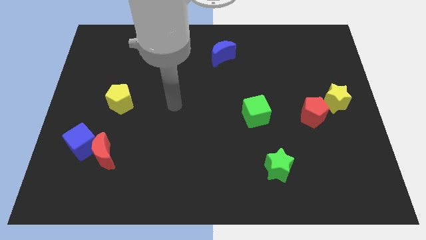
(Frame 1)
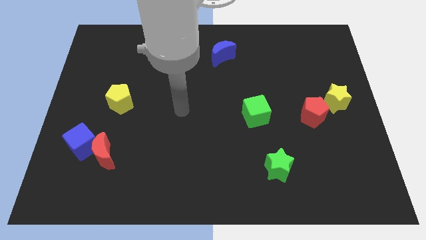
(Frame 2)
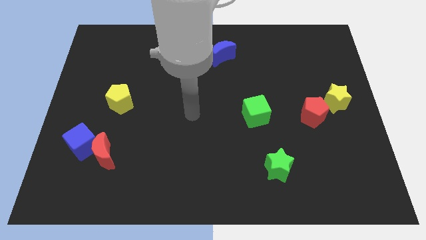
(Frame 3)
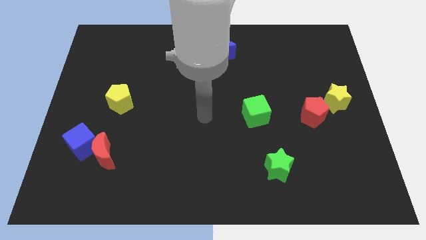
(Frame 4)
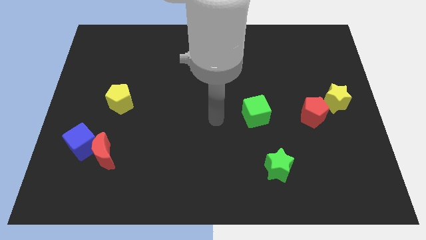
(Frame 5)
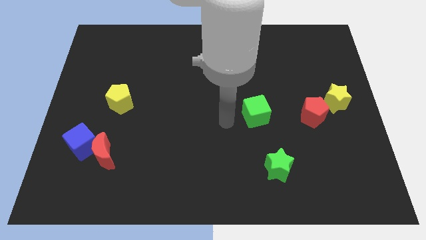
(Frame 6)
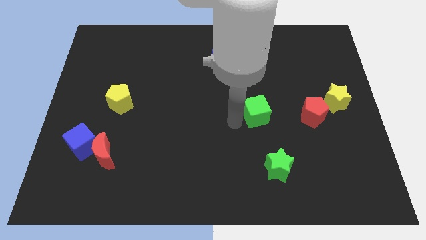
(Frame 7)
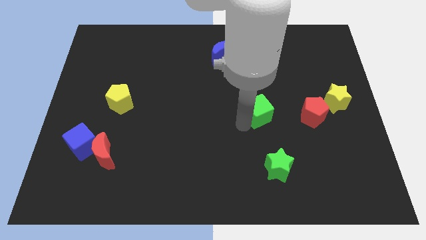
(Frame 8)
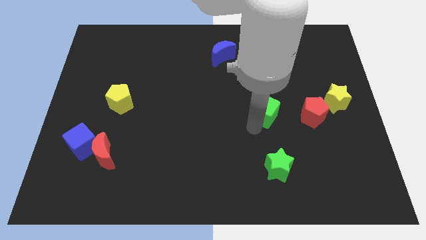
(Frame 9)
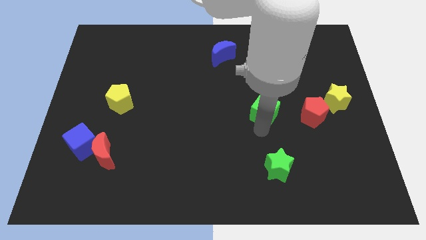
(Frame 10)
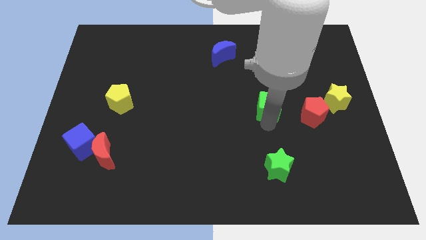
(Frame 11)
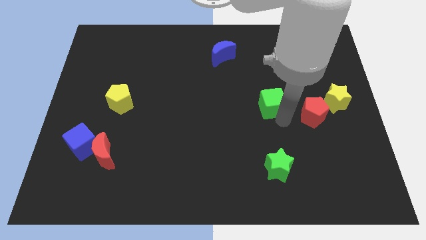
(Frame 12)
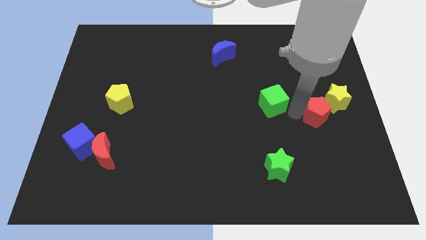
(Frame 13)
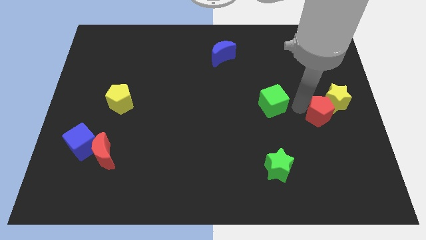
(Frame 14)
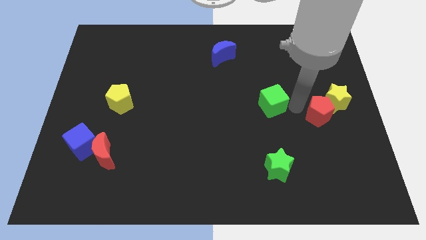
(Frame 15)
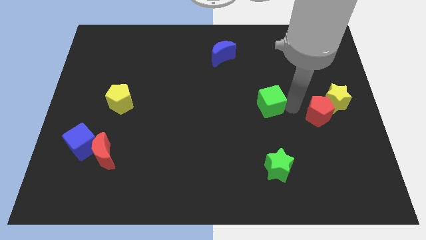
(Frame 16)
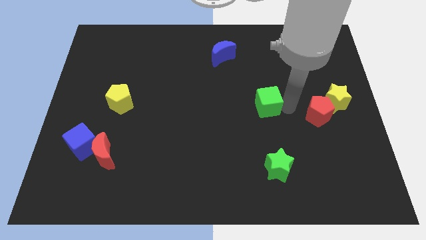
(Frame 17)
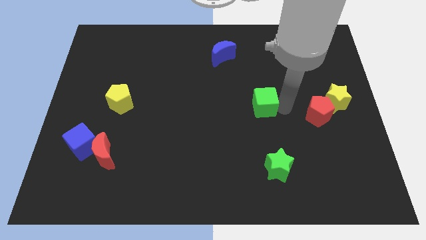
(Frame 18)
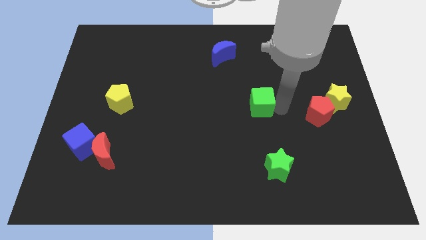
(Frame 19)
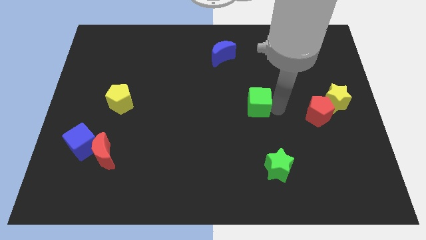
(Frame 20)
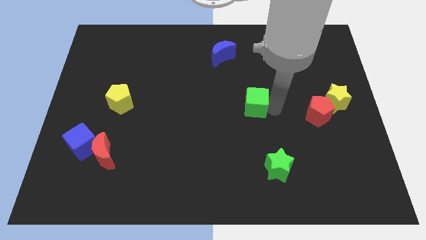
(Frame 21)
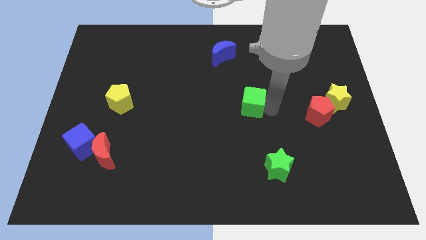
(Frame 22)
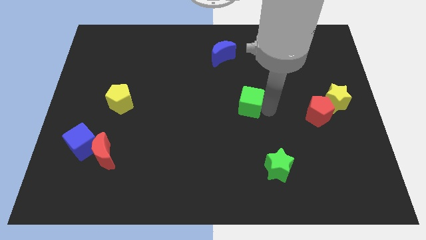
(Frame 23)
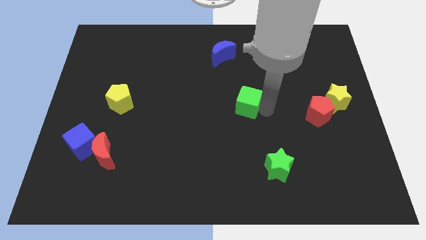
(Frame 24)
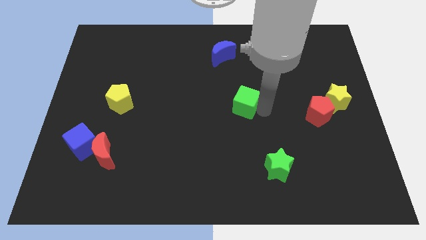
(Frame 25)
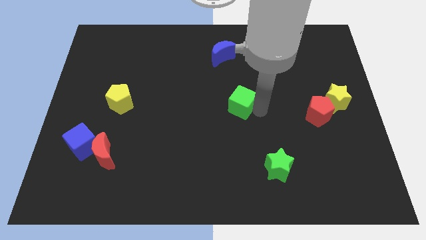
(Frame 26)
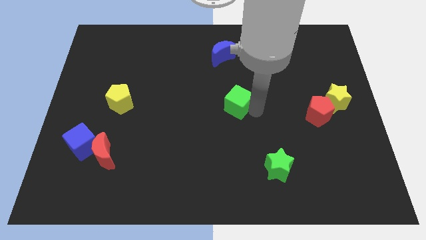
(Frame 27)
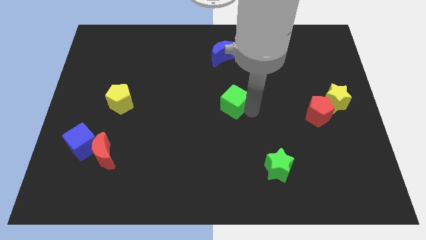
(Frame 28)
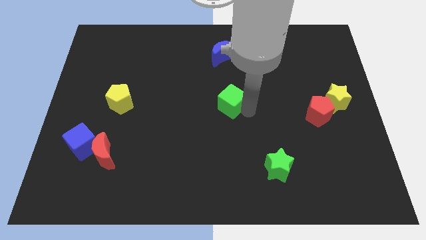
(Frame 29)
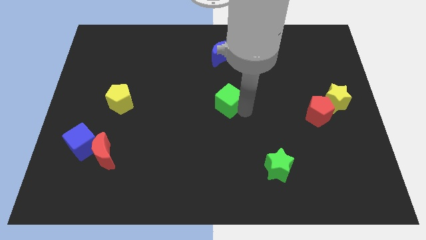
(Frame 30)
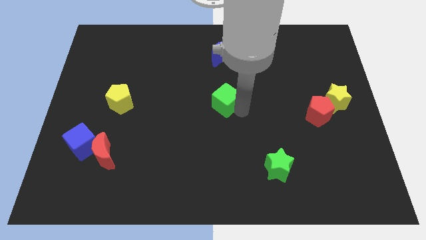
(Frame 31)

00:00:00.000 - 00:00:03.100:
push the green cube up and left diagonally a little

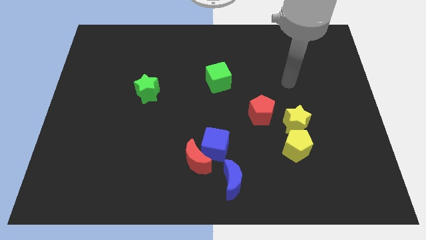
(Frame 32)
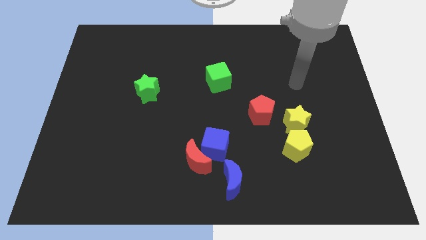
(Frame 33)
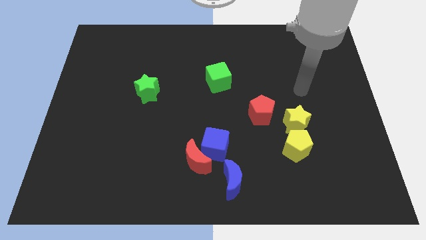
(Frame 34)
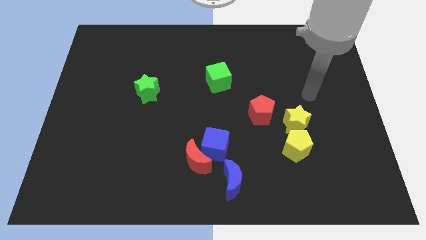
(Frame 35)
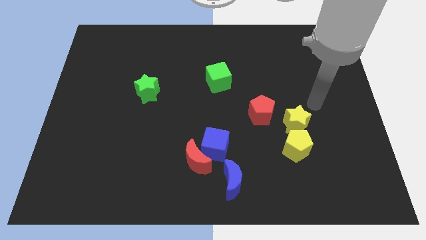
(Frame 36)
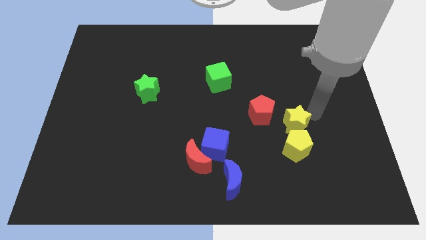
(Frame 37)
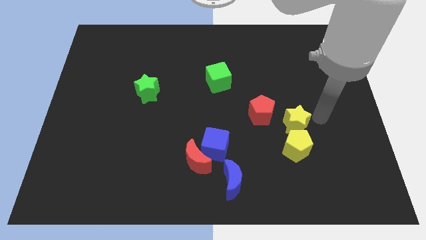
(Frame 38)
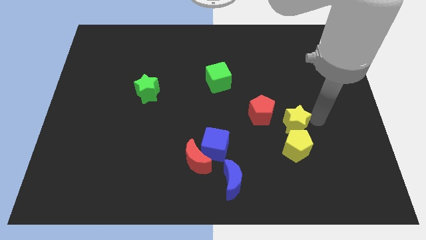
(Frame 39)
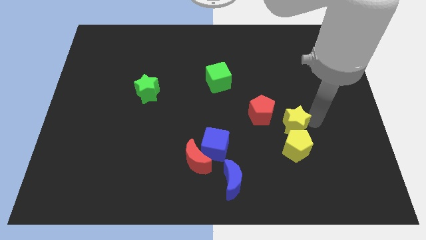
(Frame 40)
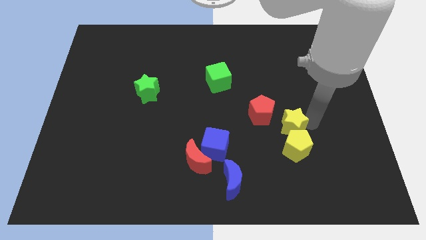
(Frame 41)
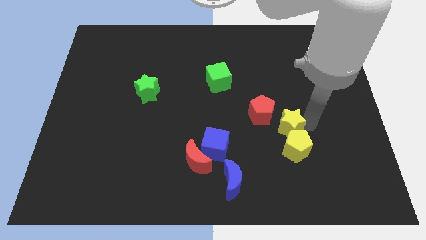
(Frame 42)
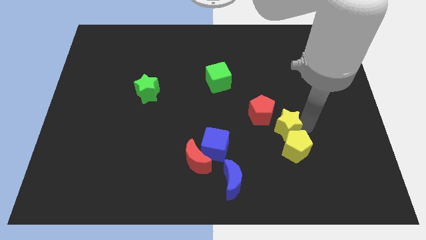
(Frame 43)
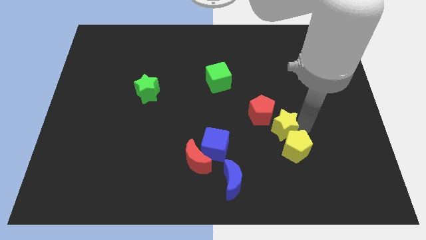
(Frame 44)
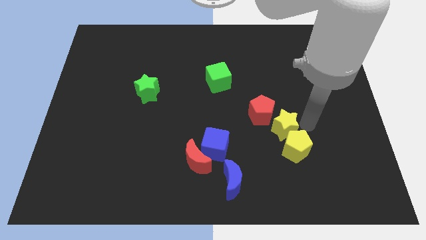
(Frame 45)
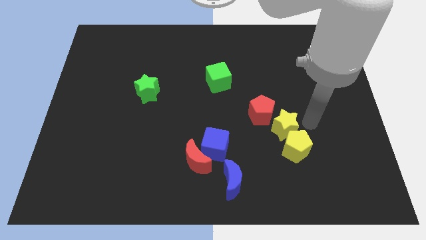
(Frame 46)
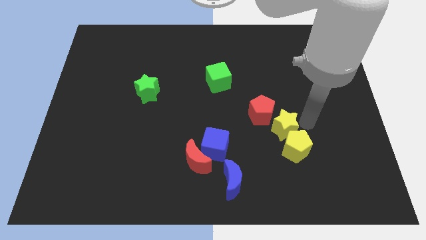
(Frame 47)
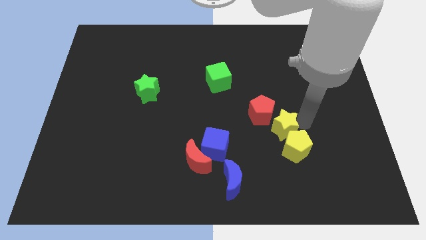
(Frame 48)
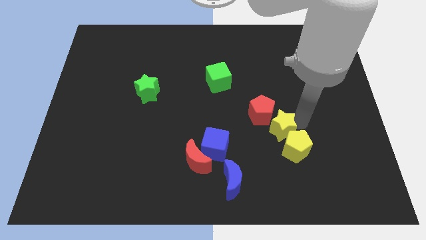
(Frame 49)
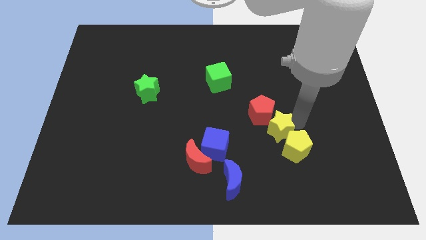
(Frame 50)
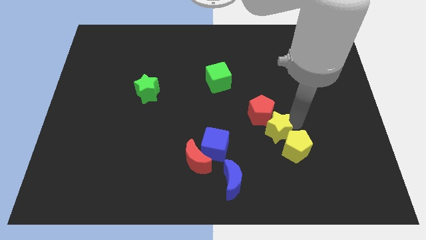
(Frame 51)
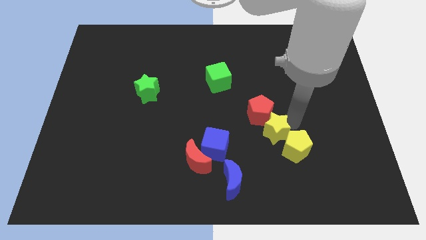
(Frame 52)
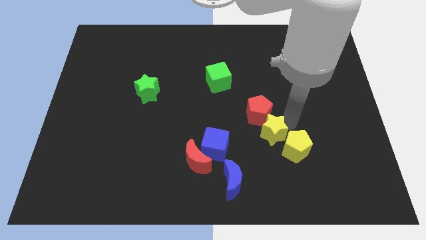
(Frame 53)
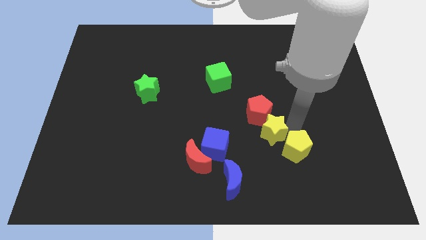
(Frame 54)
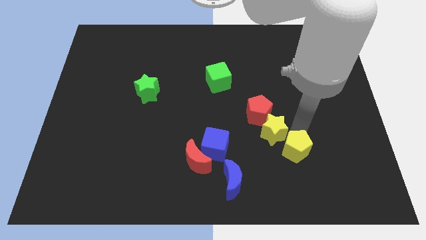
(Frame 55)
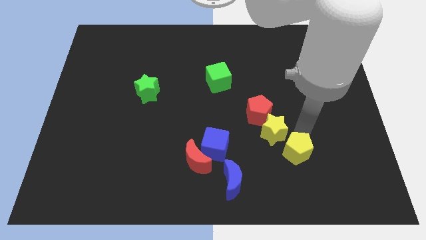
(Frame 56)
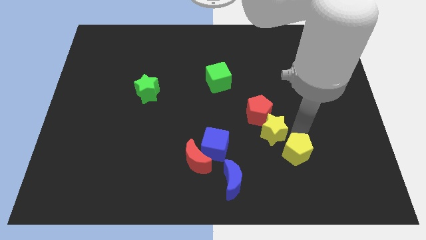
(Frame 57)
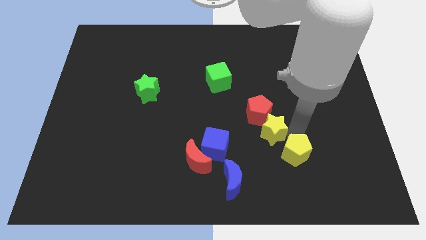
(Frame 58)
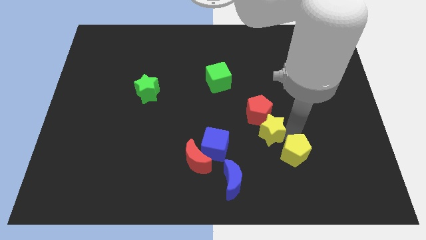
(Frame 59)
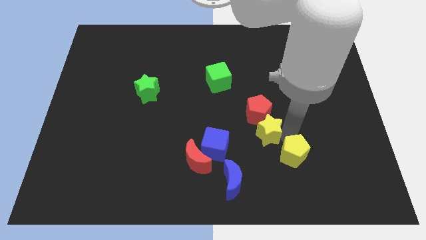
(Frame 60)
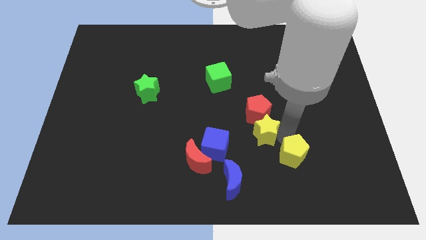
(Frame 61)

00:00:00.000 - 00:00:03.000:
slightly slide the yellow star to the left

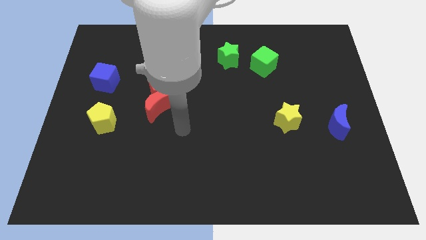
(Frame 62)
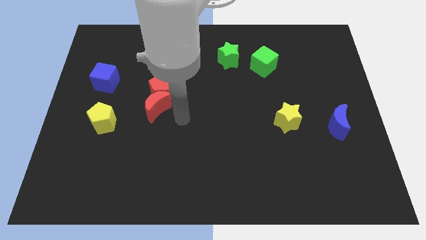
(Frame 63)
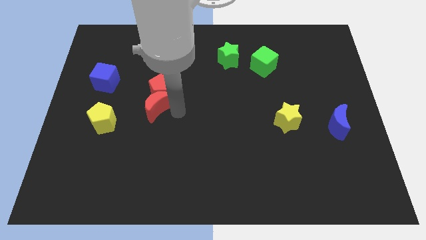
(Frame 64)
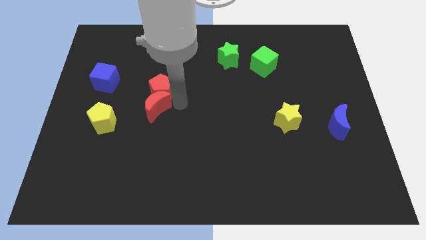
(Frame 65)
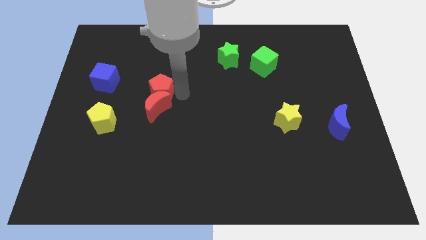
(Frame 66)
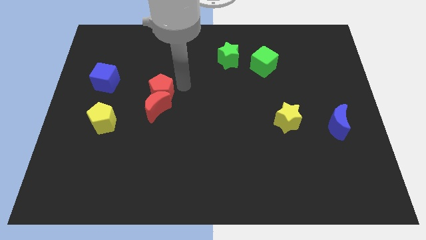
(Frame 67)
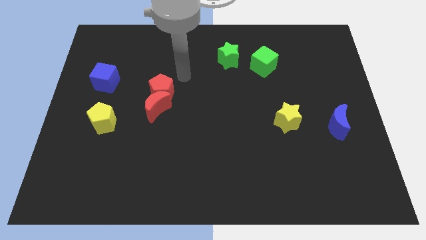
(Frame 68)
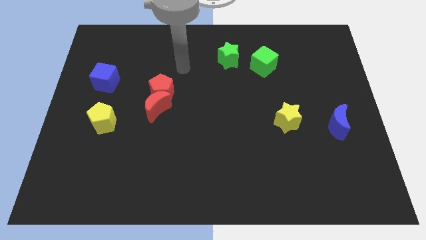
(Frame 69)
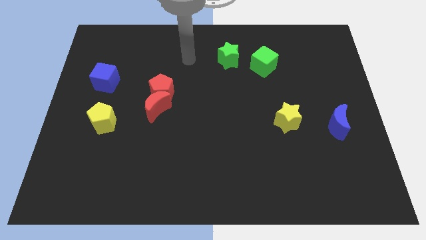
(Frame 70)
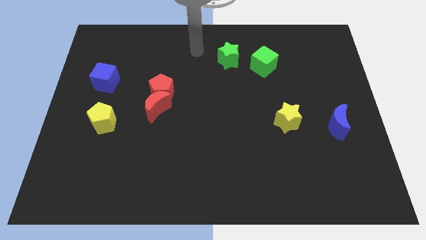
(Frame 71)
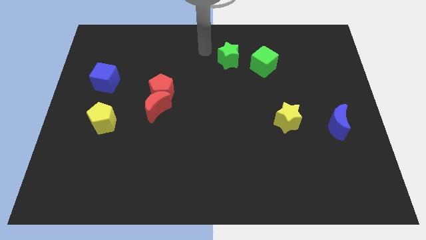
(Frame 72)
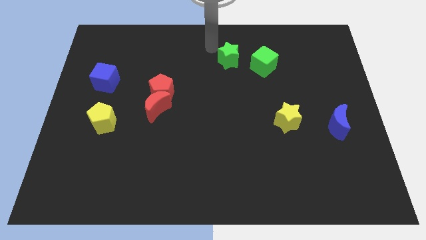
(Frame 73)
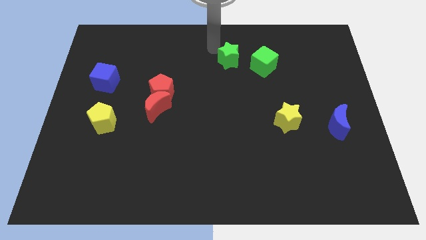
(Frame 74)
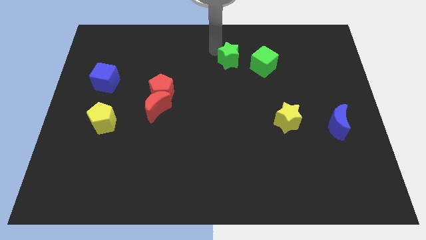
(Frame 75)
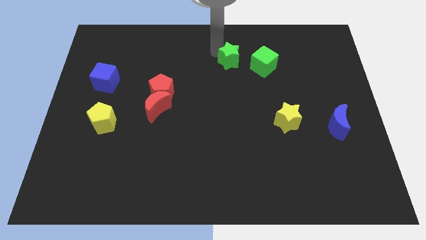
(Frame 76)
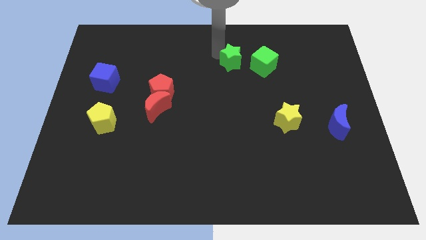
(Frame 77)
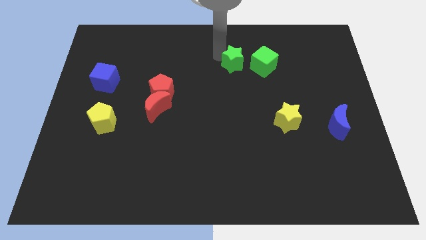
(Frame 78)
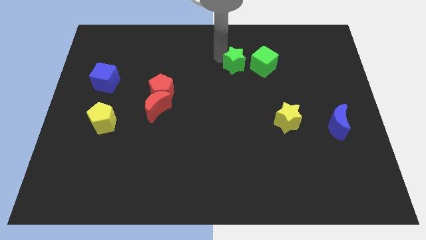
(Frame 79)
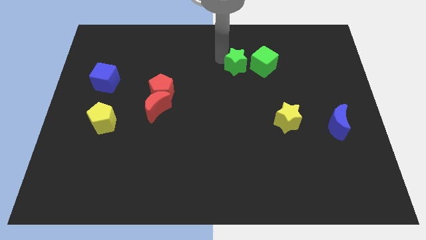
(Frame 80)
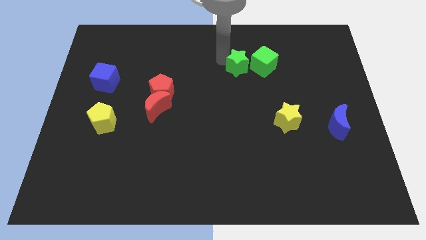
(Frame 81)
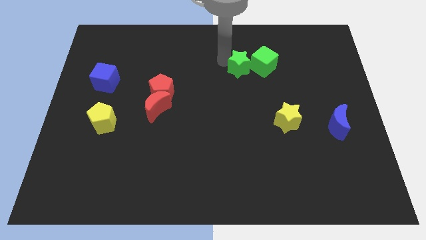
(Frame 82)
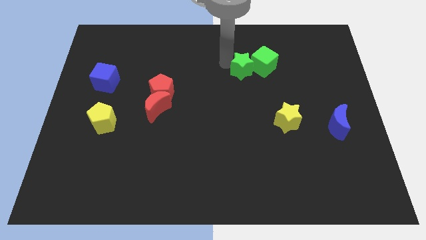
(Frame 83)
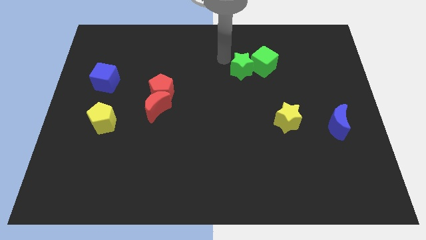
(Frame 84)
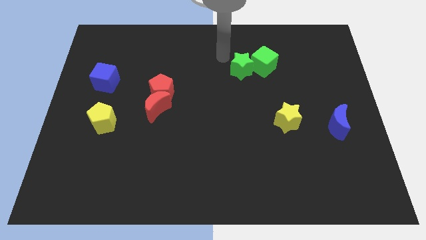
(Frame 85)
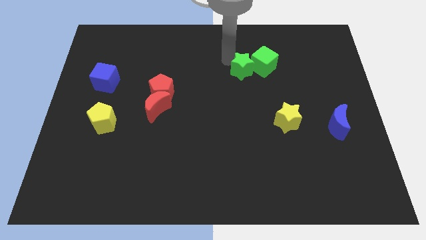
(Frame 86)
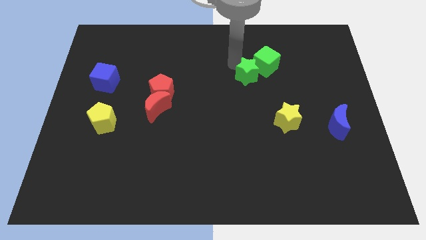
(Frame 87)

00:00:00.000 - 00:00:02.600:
slightly slide the green star downwards and to the right
